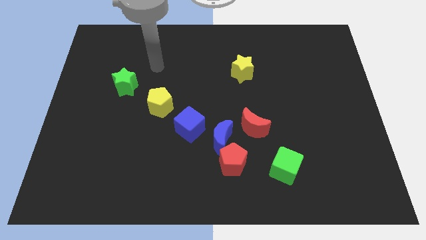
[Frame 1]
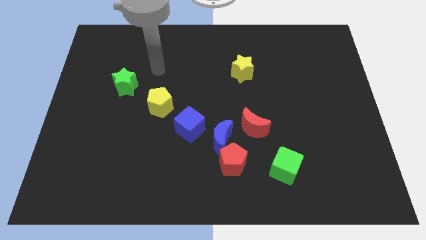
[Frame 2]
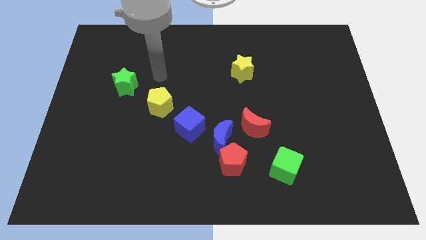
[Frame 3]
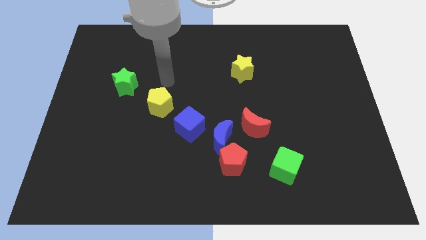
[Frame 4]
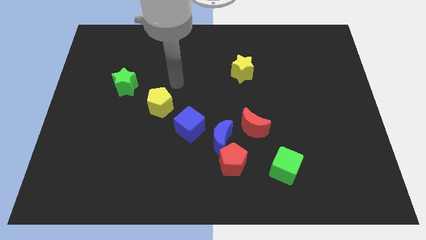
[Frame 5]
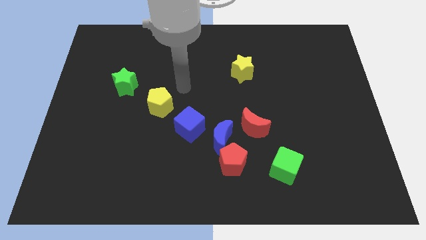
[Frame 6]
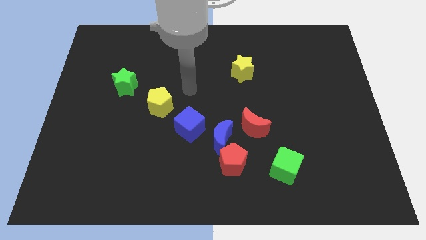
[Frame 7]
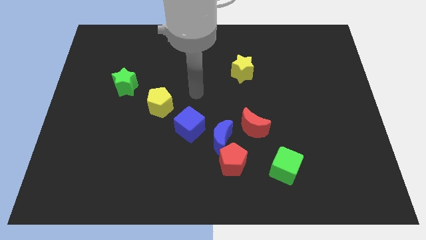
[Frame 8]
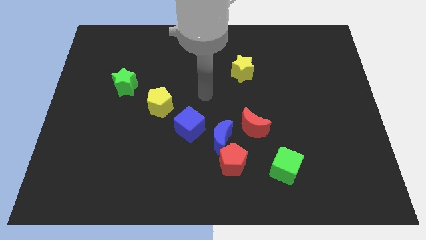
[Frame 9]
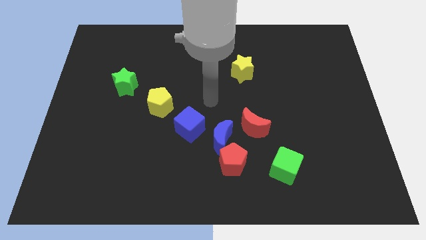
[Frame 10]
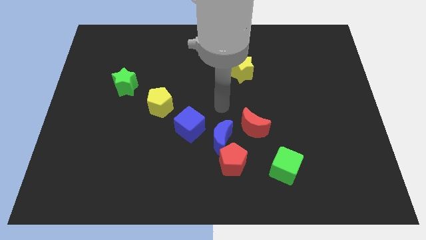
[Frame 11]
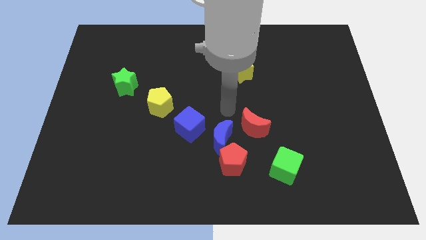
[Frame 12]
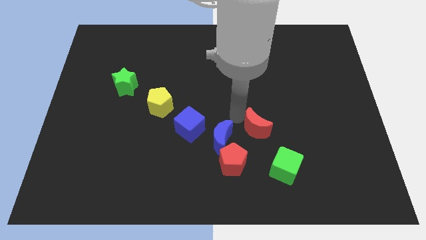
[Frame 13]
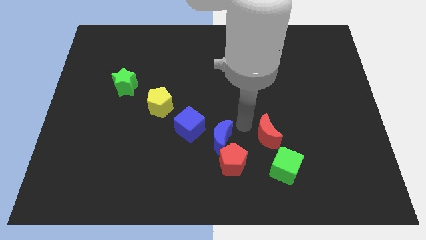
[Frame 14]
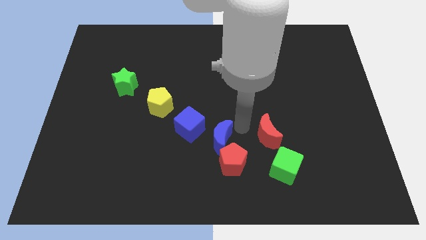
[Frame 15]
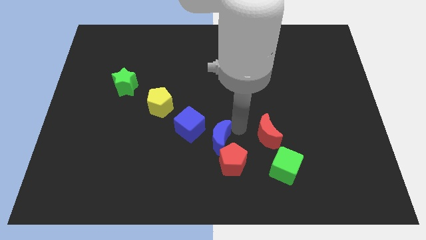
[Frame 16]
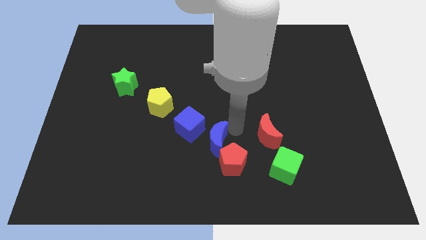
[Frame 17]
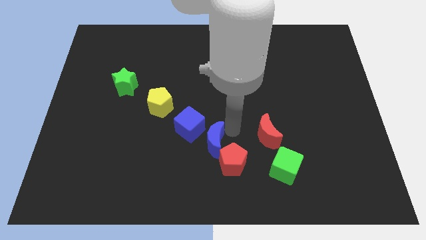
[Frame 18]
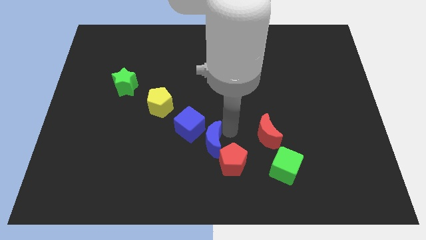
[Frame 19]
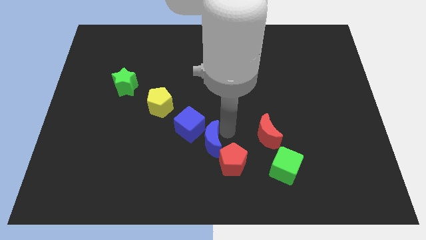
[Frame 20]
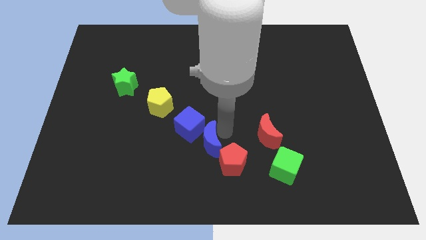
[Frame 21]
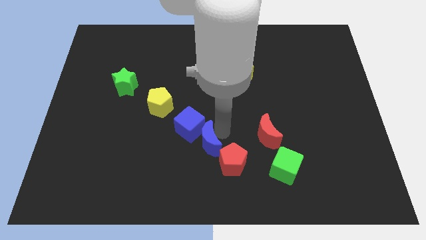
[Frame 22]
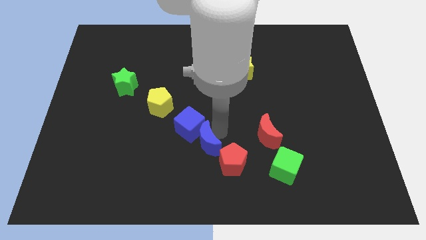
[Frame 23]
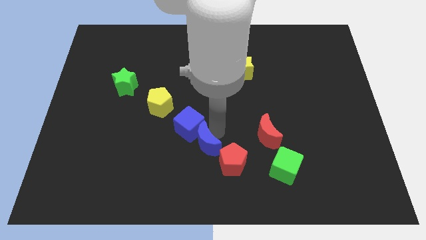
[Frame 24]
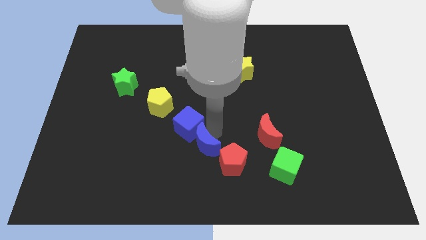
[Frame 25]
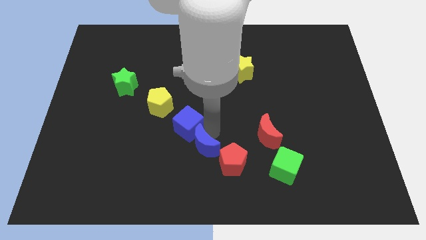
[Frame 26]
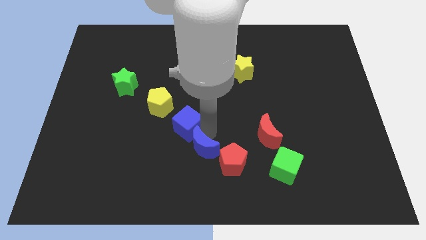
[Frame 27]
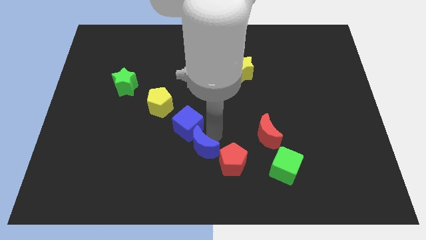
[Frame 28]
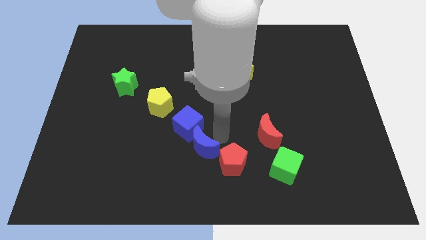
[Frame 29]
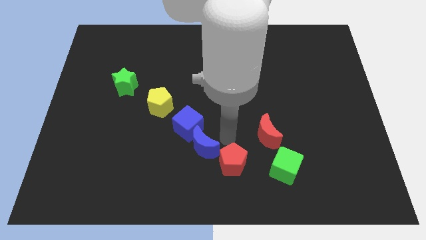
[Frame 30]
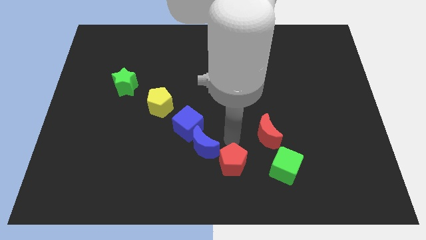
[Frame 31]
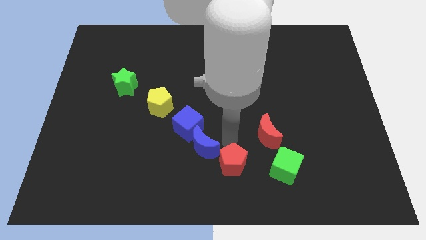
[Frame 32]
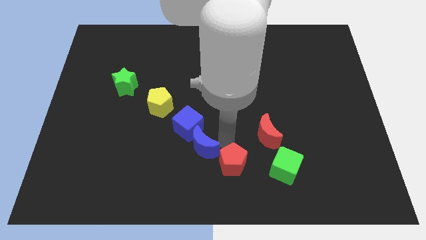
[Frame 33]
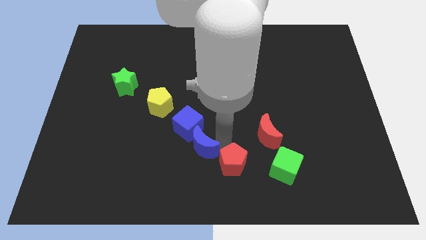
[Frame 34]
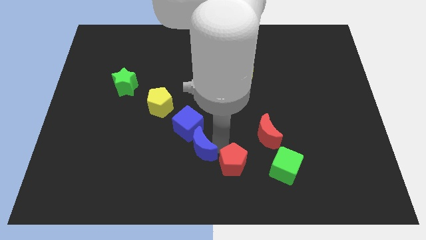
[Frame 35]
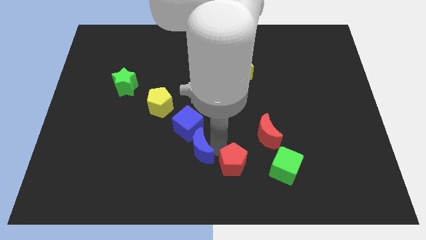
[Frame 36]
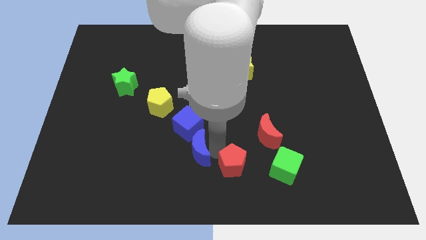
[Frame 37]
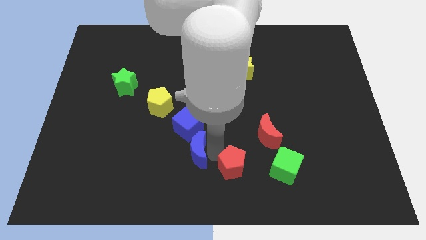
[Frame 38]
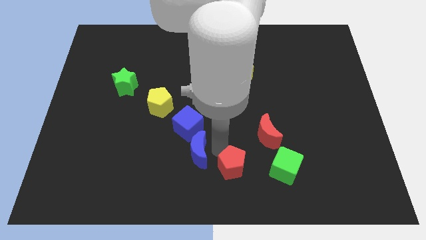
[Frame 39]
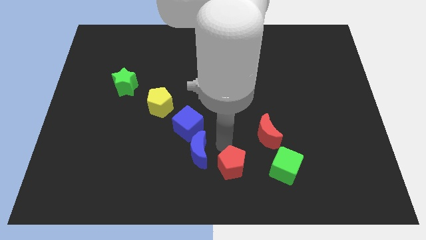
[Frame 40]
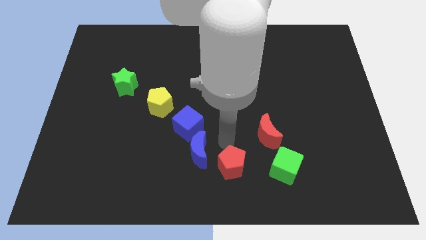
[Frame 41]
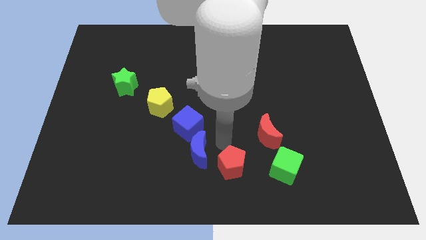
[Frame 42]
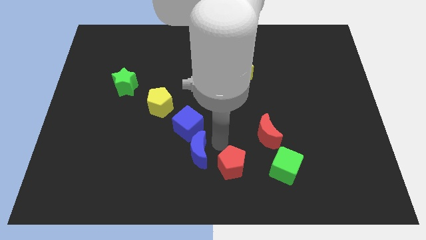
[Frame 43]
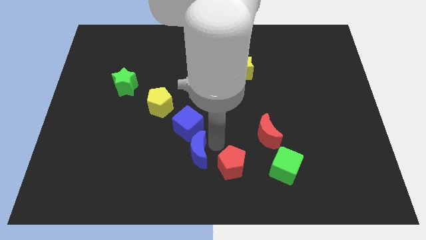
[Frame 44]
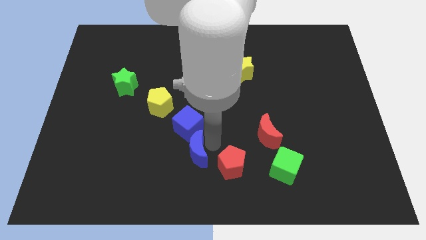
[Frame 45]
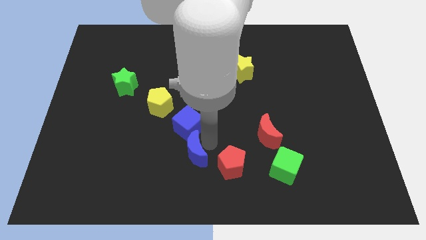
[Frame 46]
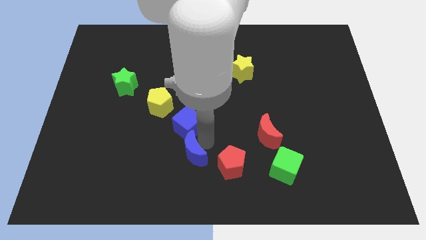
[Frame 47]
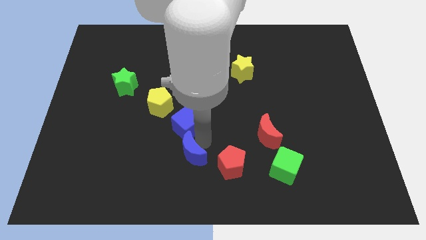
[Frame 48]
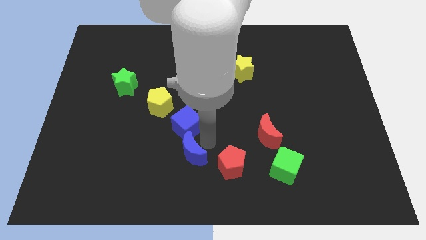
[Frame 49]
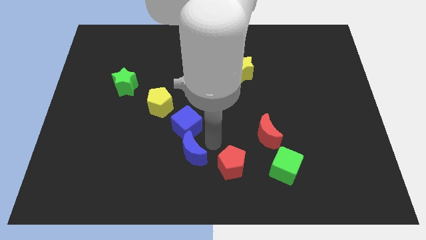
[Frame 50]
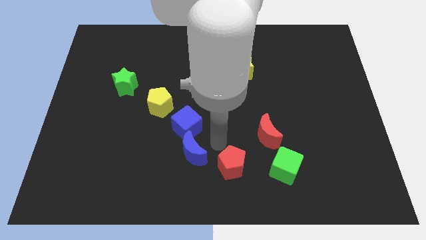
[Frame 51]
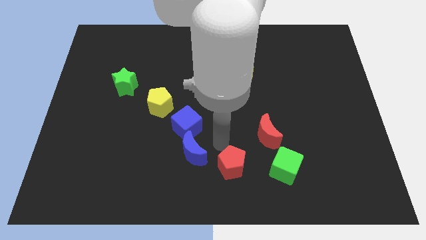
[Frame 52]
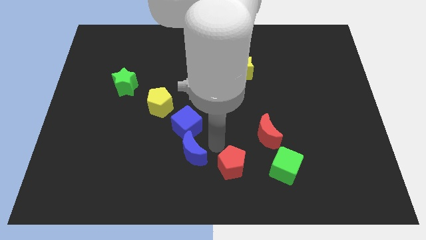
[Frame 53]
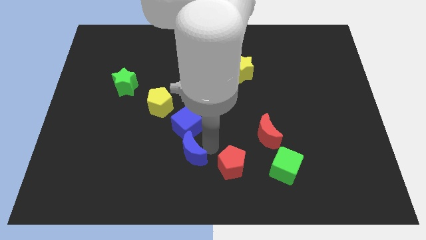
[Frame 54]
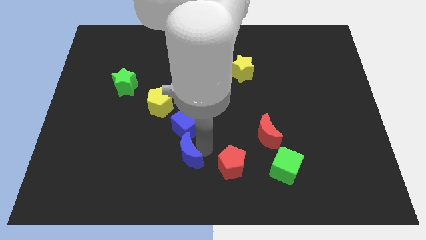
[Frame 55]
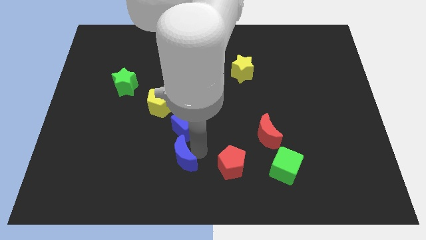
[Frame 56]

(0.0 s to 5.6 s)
pull the blue moon apart from the red pentagon, blue cube, and red moon

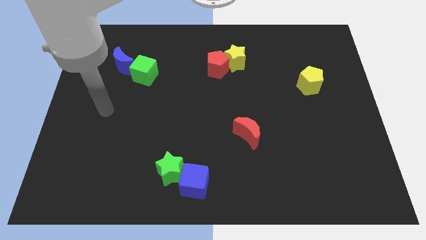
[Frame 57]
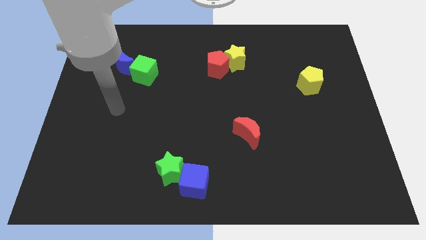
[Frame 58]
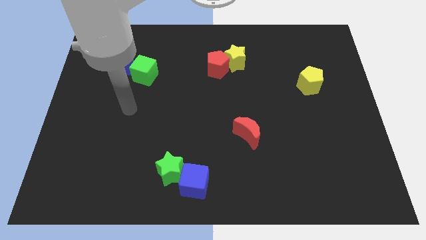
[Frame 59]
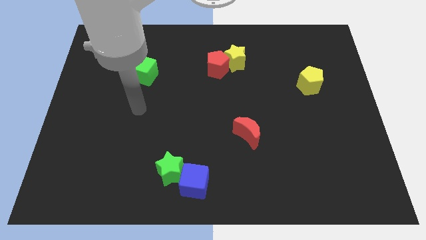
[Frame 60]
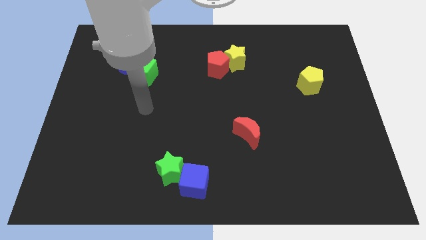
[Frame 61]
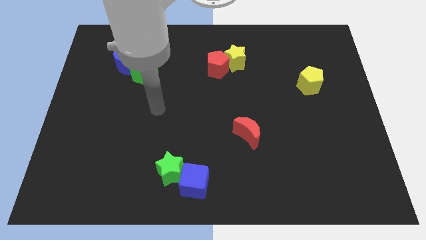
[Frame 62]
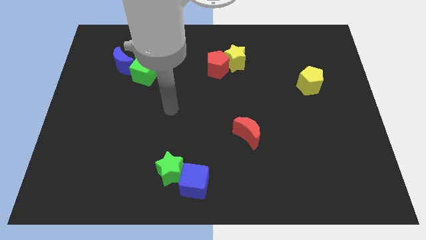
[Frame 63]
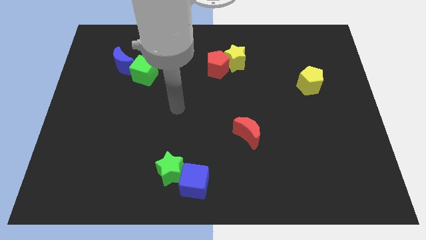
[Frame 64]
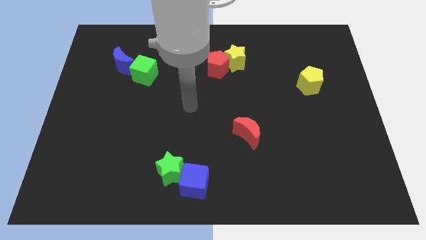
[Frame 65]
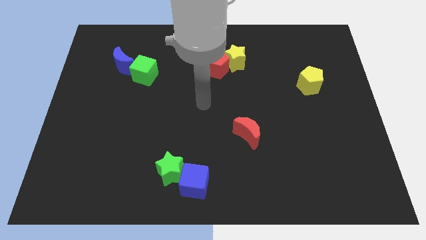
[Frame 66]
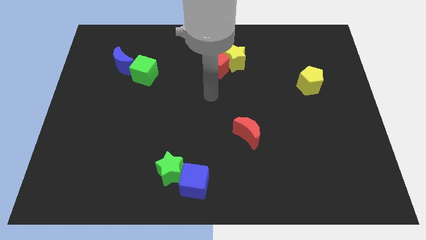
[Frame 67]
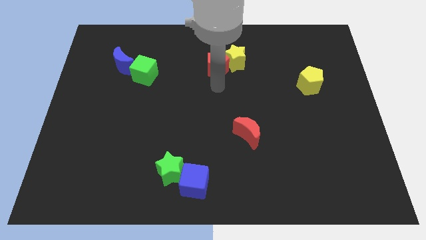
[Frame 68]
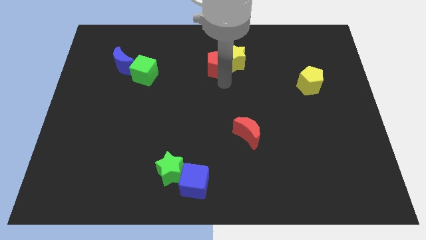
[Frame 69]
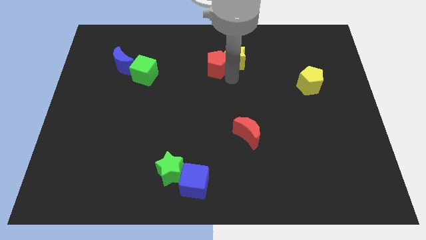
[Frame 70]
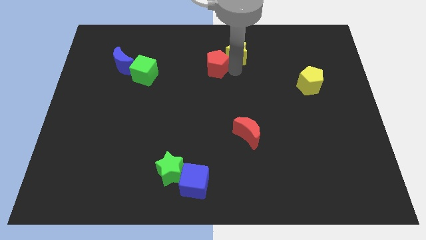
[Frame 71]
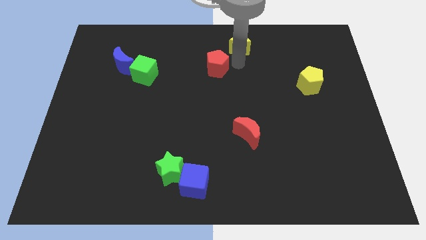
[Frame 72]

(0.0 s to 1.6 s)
separate the red pentagon from the yellow star

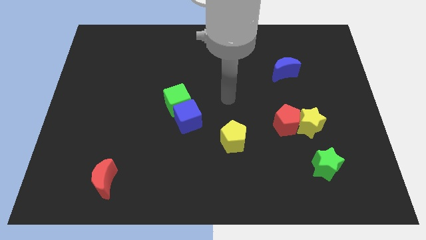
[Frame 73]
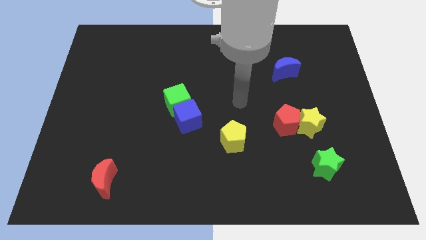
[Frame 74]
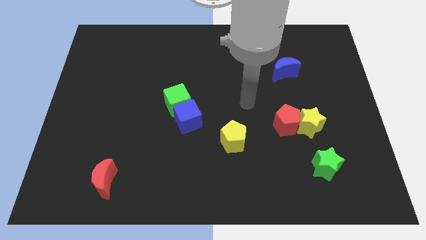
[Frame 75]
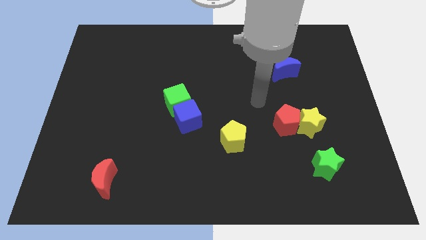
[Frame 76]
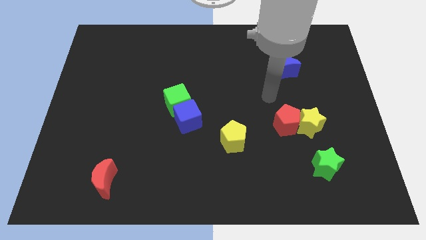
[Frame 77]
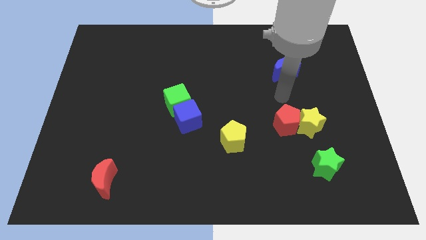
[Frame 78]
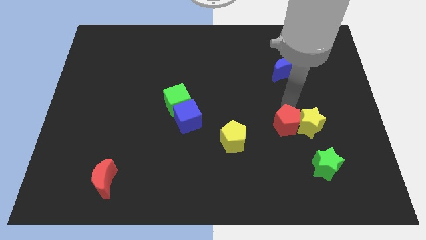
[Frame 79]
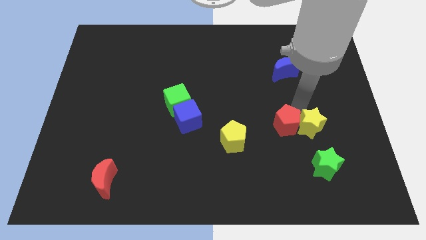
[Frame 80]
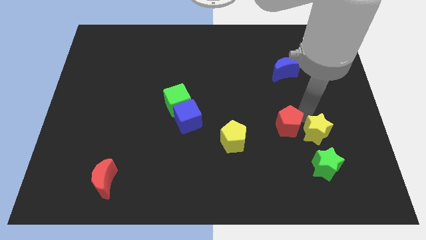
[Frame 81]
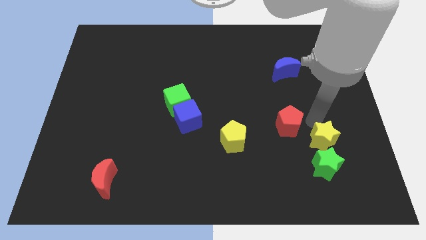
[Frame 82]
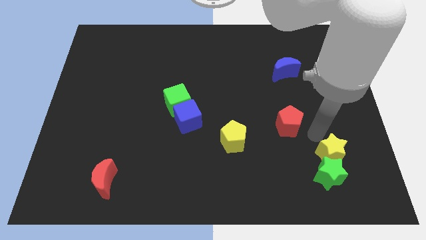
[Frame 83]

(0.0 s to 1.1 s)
move the red pentagon away from the yellow star

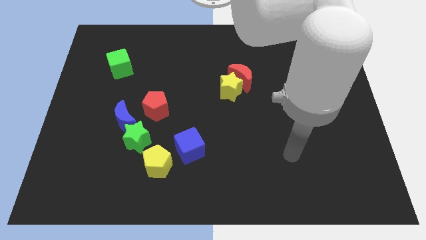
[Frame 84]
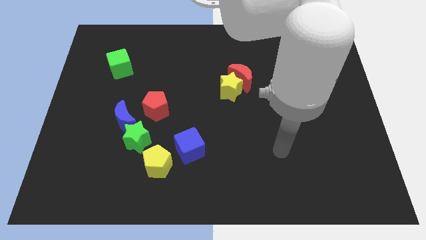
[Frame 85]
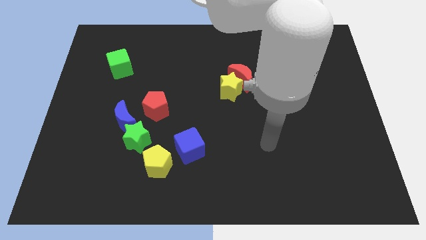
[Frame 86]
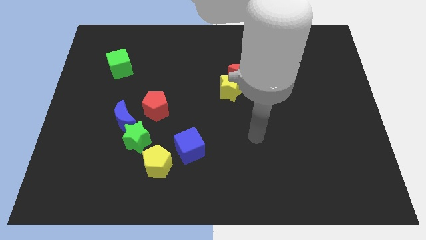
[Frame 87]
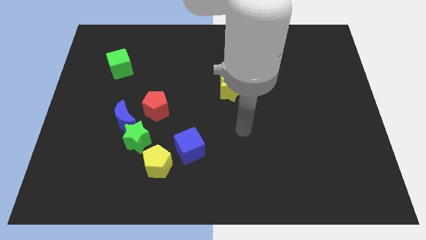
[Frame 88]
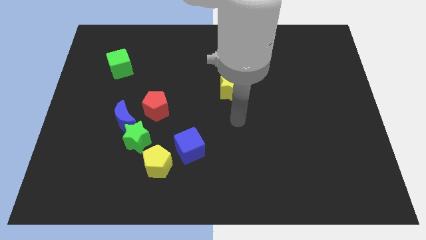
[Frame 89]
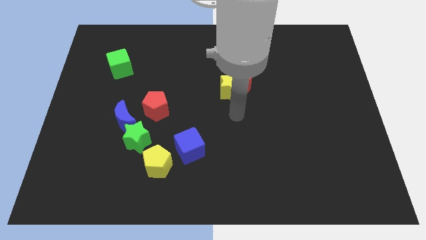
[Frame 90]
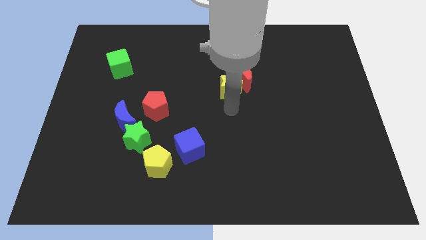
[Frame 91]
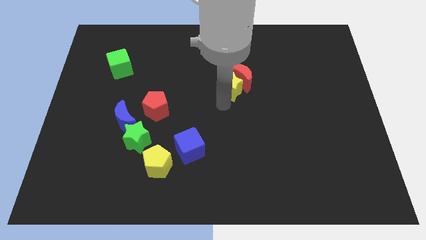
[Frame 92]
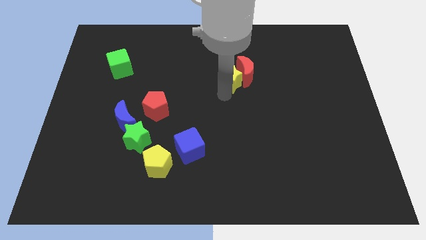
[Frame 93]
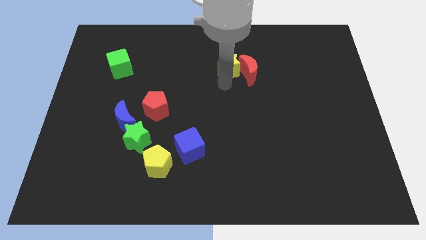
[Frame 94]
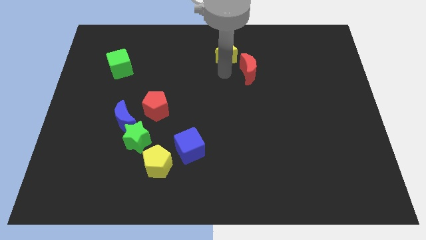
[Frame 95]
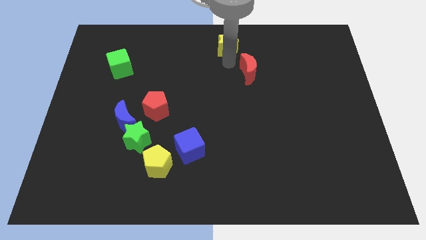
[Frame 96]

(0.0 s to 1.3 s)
move the red moon away from the yellow star
